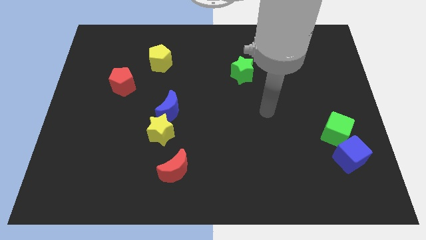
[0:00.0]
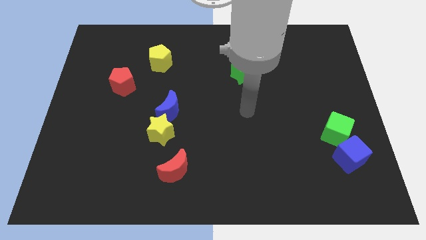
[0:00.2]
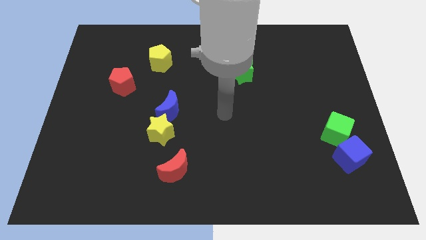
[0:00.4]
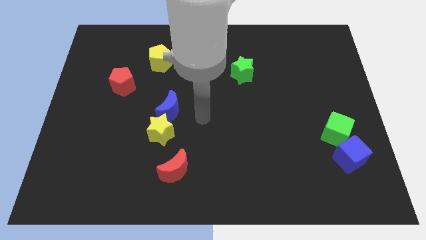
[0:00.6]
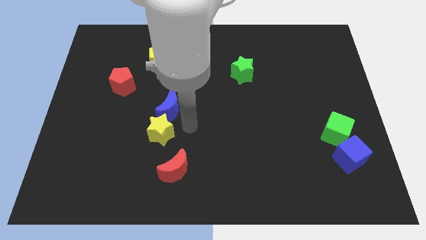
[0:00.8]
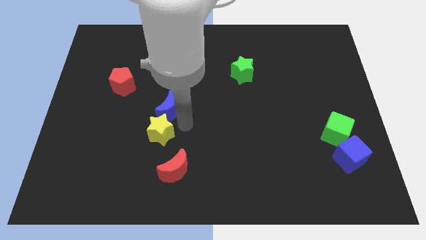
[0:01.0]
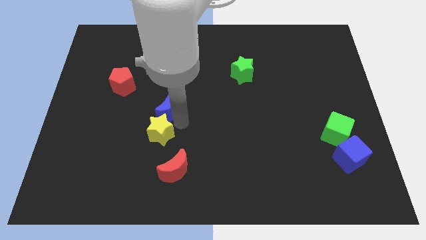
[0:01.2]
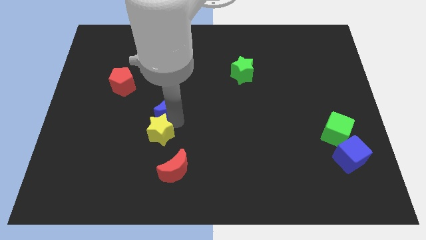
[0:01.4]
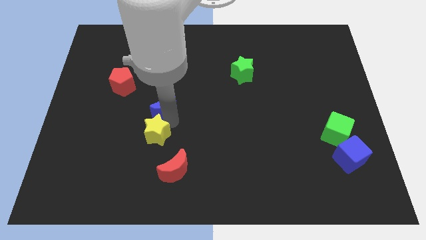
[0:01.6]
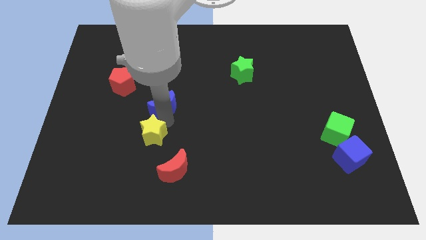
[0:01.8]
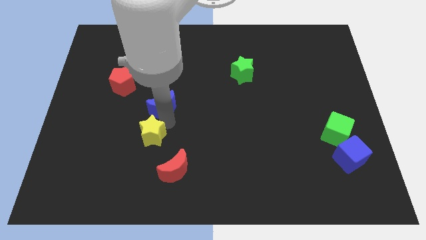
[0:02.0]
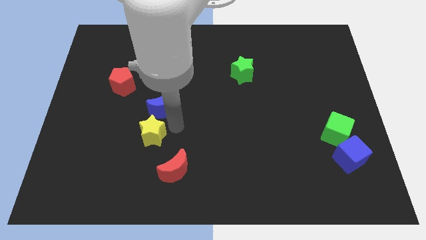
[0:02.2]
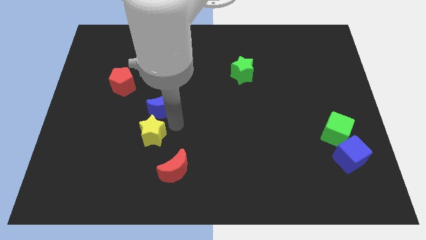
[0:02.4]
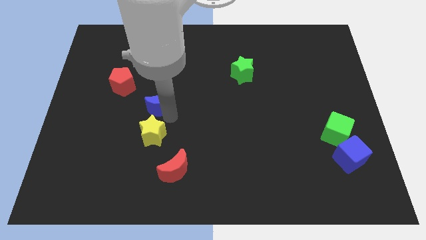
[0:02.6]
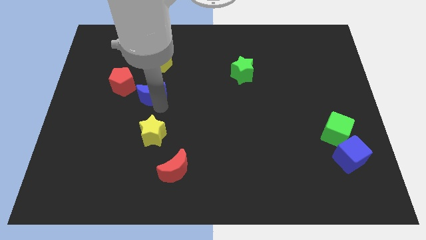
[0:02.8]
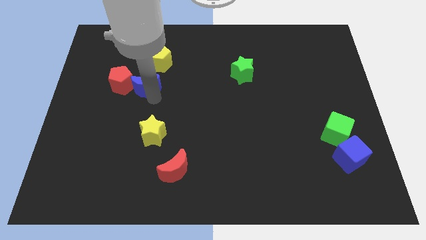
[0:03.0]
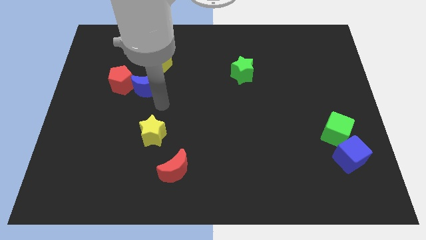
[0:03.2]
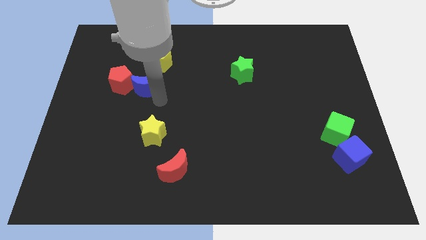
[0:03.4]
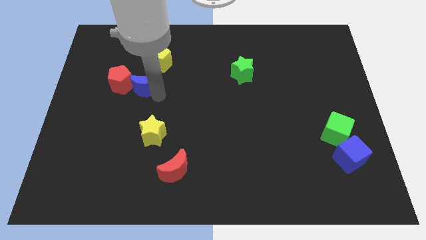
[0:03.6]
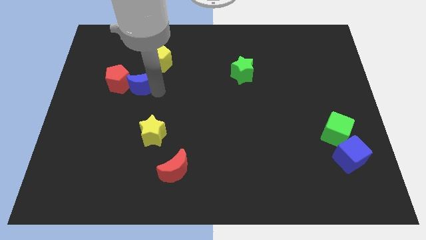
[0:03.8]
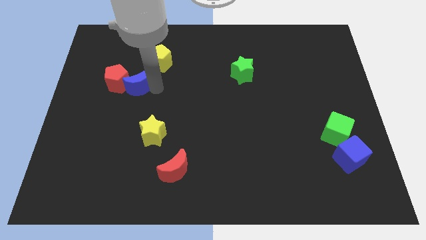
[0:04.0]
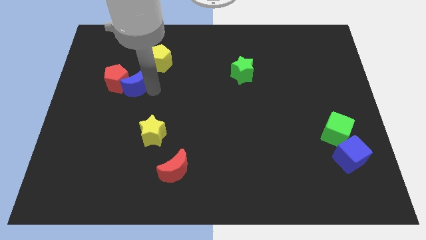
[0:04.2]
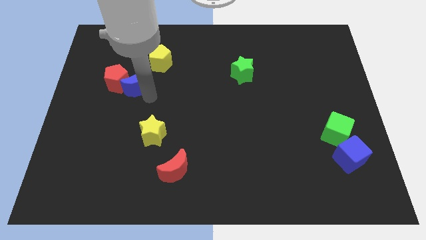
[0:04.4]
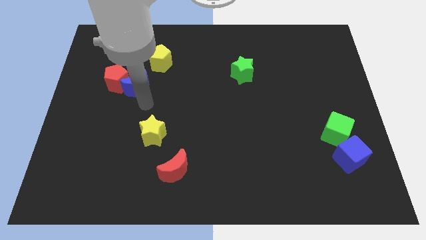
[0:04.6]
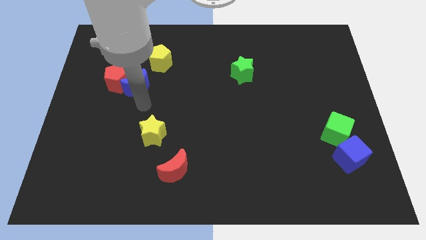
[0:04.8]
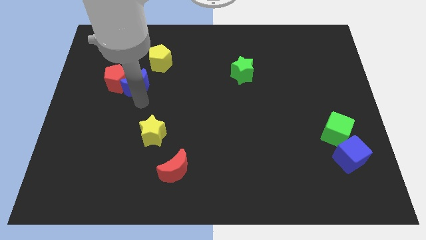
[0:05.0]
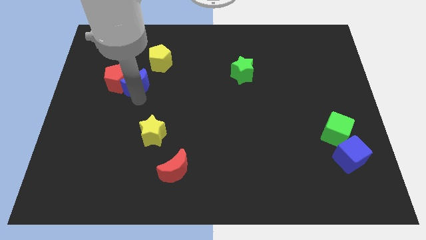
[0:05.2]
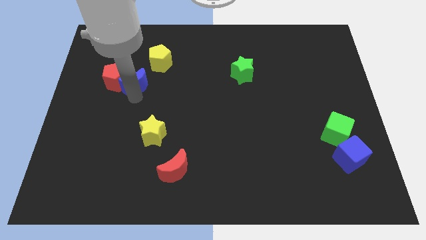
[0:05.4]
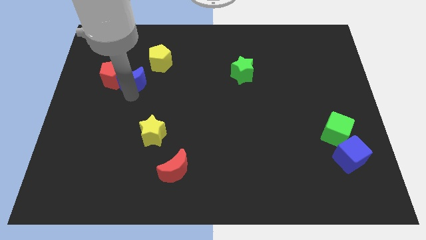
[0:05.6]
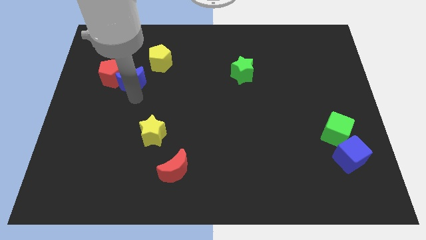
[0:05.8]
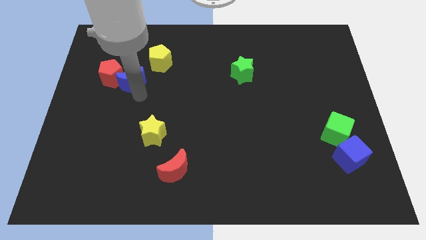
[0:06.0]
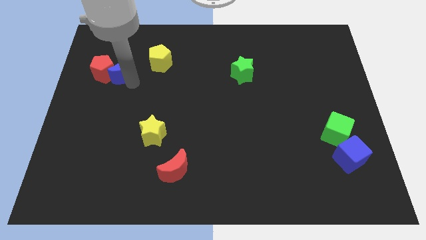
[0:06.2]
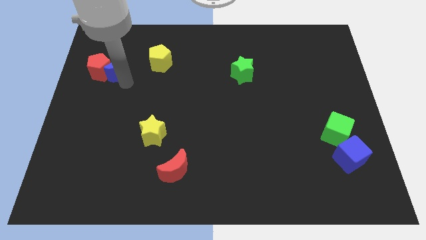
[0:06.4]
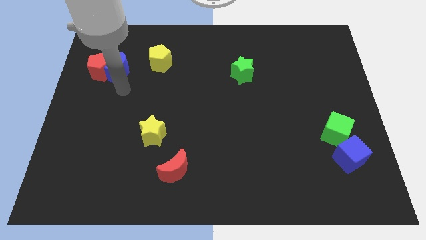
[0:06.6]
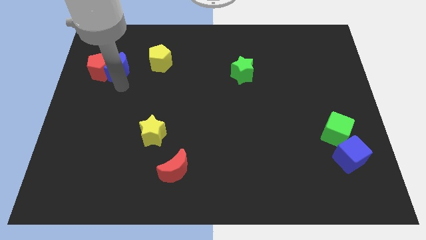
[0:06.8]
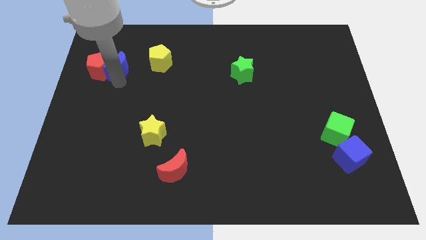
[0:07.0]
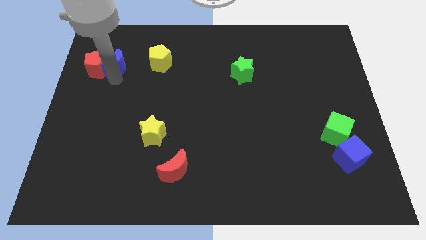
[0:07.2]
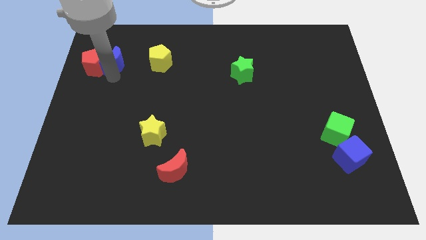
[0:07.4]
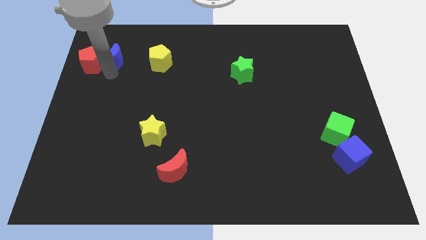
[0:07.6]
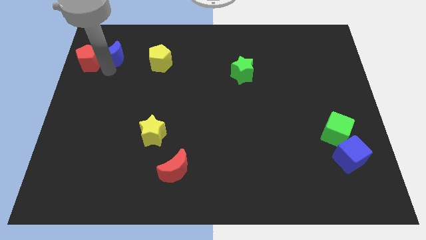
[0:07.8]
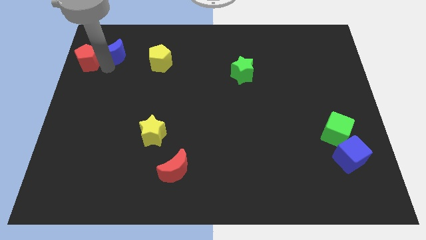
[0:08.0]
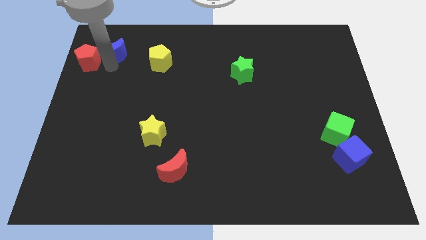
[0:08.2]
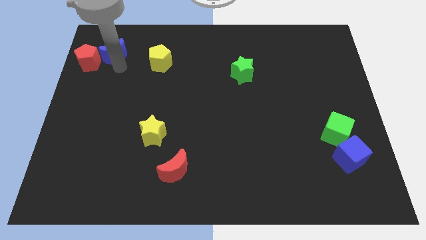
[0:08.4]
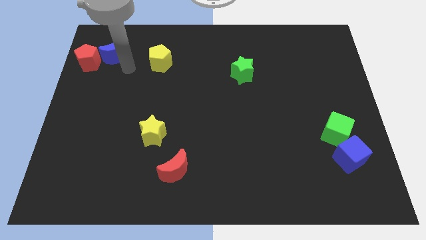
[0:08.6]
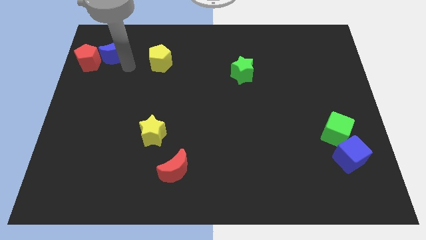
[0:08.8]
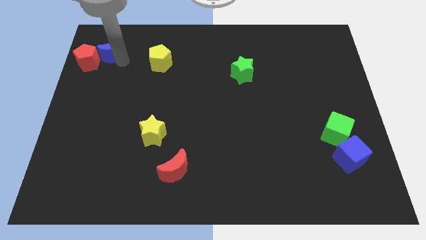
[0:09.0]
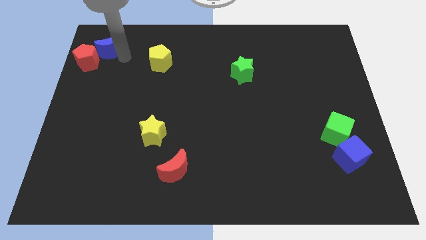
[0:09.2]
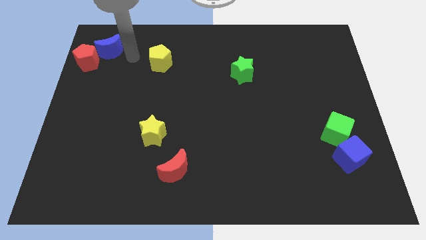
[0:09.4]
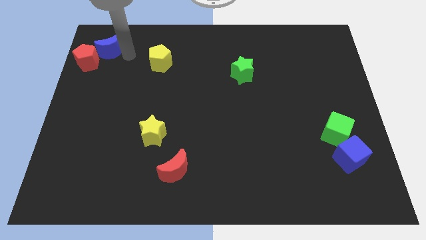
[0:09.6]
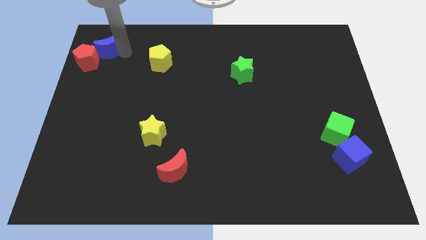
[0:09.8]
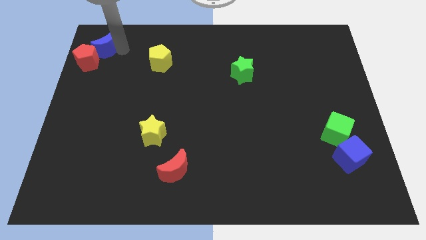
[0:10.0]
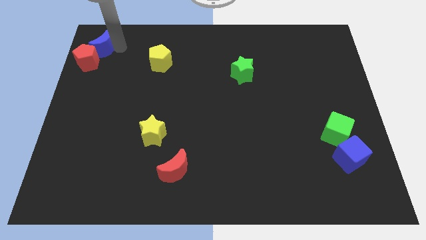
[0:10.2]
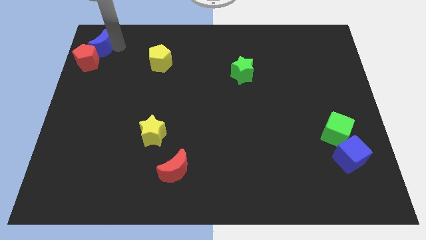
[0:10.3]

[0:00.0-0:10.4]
push the blue moon to the top left corner

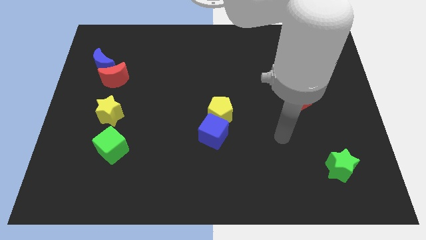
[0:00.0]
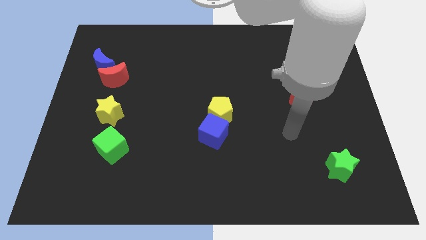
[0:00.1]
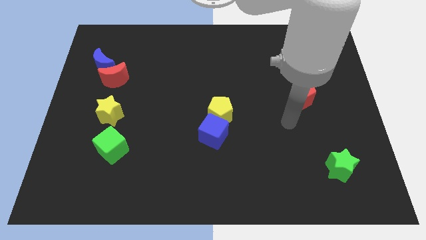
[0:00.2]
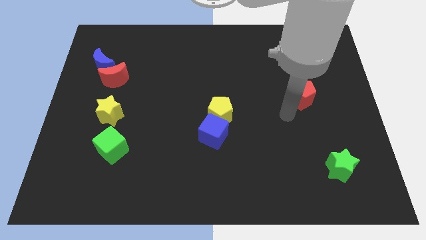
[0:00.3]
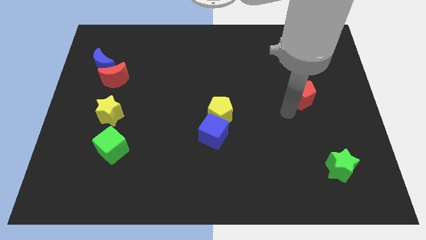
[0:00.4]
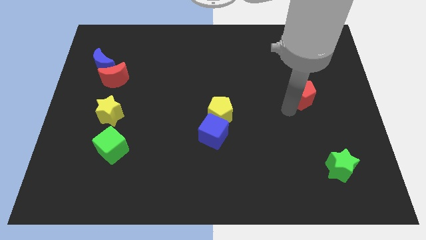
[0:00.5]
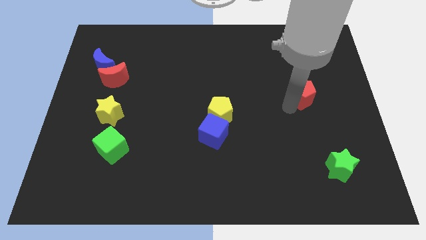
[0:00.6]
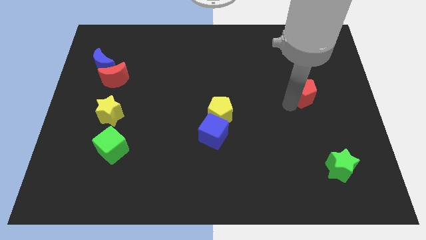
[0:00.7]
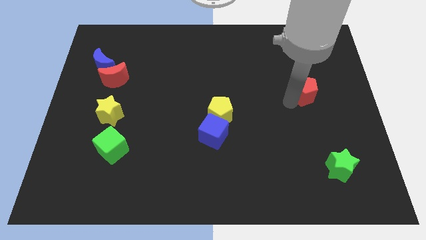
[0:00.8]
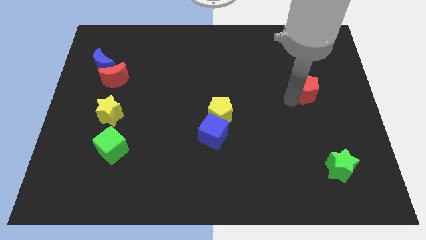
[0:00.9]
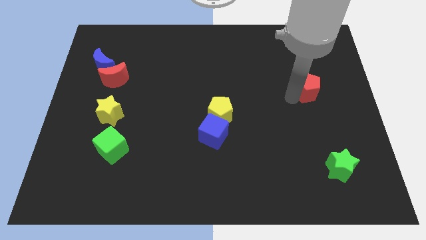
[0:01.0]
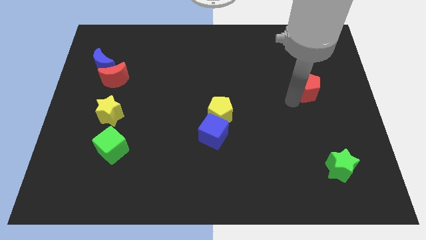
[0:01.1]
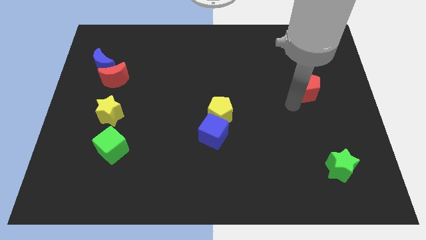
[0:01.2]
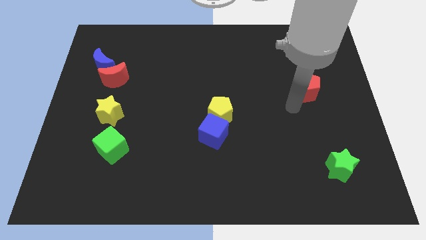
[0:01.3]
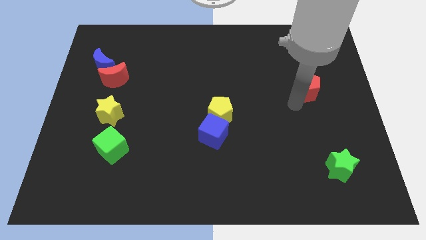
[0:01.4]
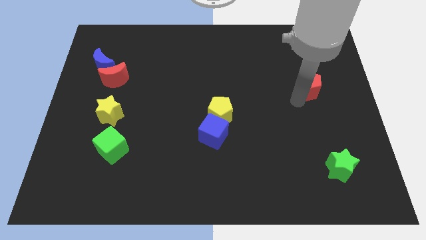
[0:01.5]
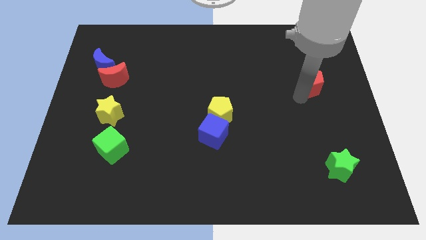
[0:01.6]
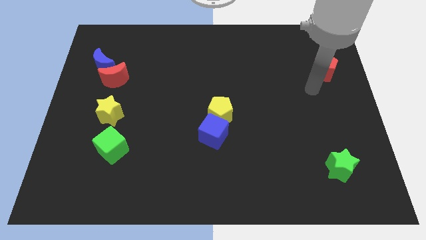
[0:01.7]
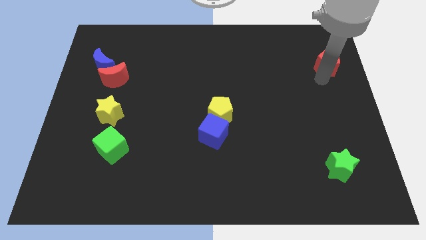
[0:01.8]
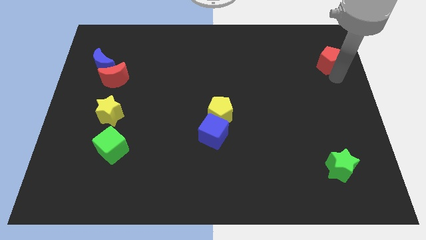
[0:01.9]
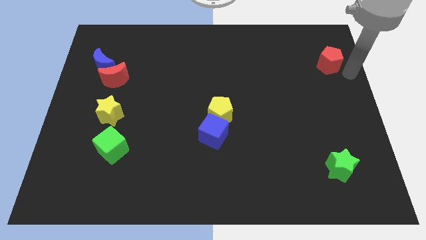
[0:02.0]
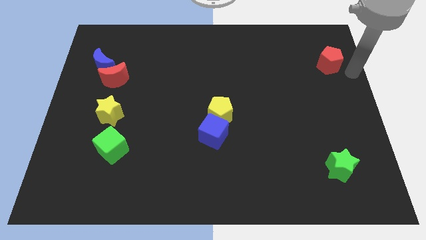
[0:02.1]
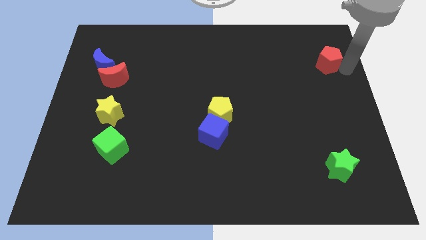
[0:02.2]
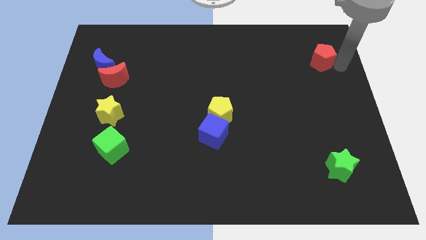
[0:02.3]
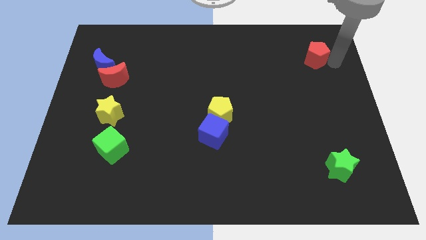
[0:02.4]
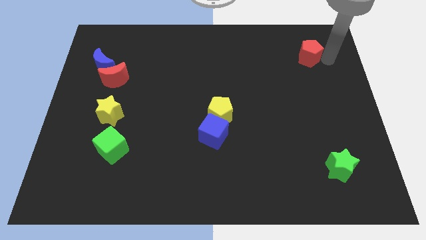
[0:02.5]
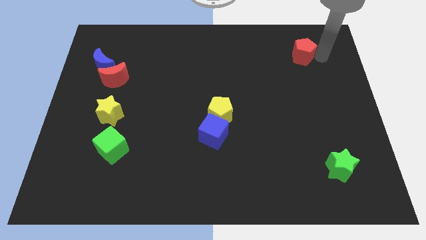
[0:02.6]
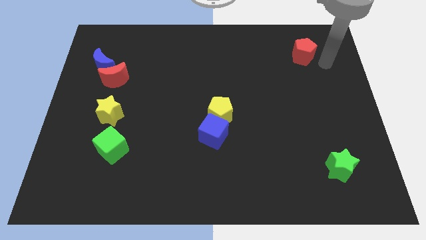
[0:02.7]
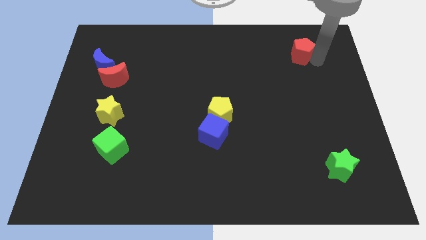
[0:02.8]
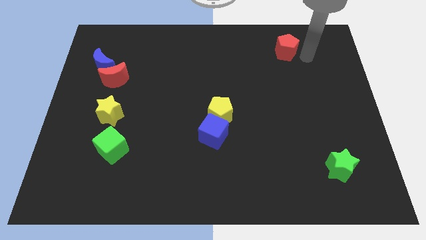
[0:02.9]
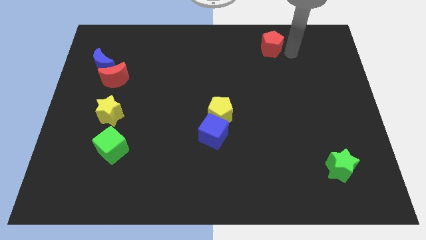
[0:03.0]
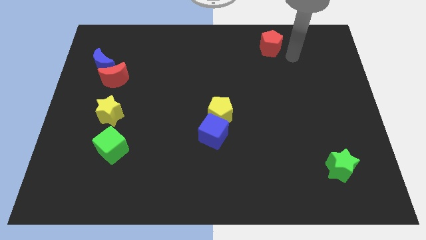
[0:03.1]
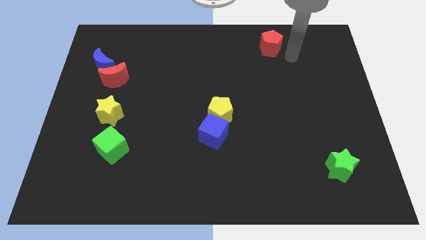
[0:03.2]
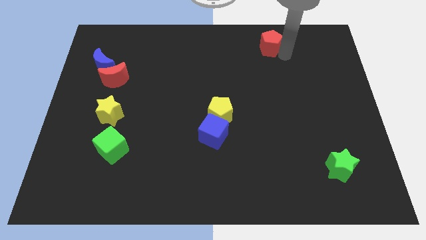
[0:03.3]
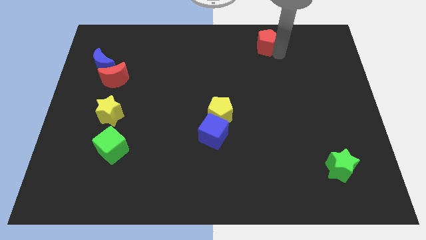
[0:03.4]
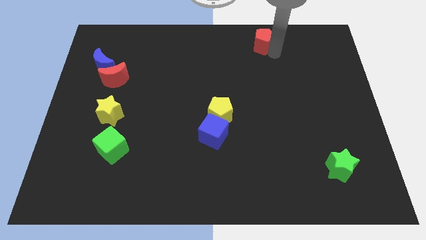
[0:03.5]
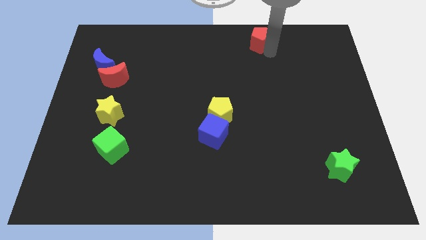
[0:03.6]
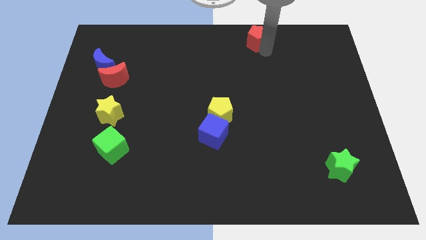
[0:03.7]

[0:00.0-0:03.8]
slide the red pentagon to the top side
